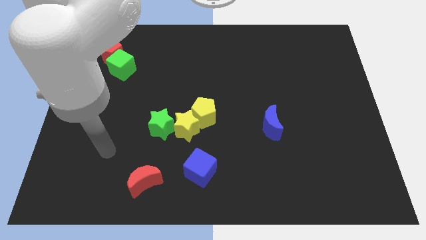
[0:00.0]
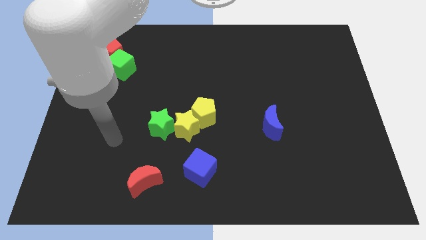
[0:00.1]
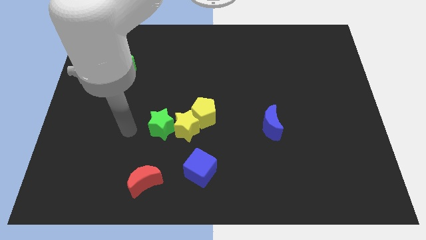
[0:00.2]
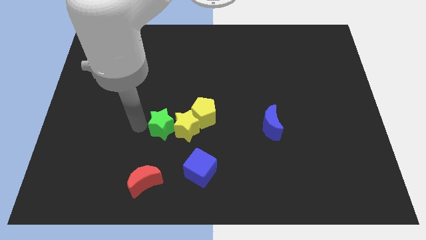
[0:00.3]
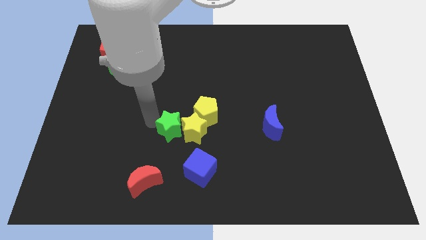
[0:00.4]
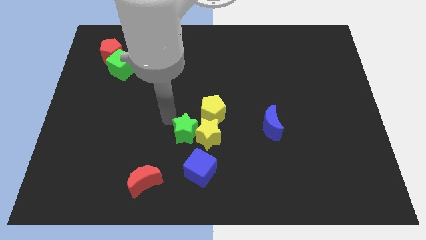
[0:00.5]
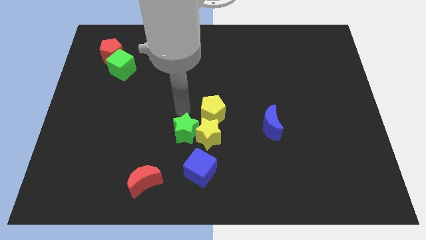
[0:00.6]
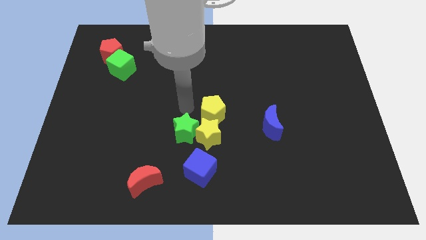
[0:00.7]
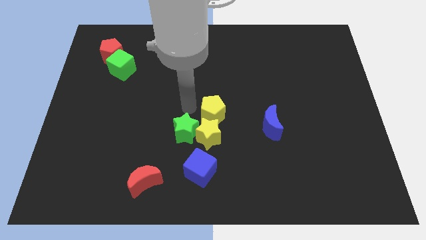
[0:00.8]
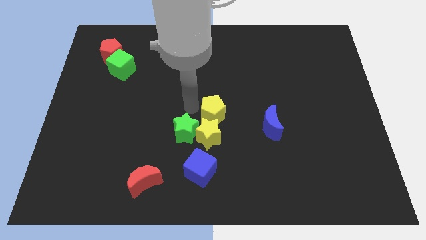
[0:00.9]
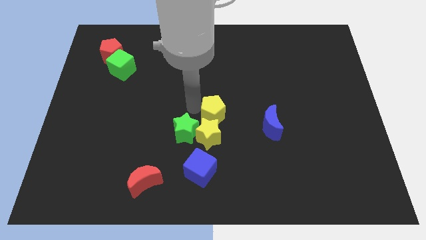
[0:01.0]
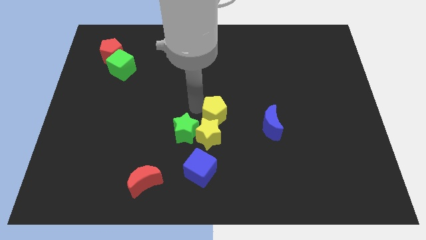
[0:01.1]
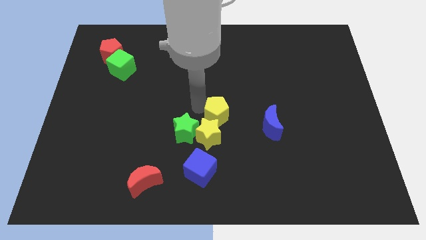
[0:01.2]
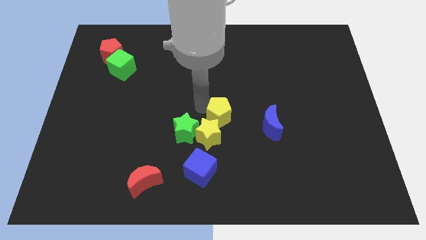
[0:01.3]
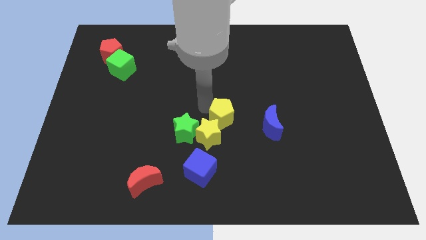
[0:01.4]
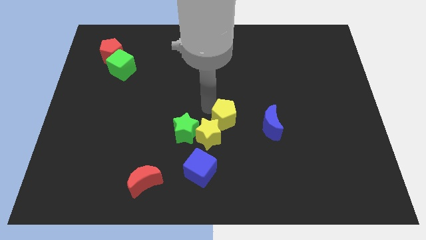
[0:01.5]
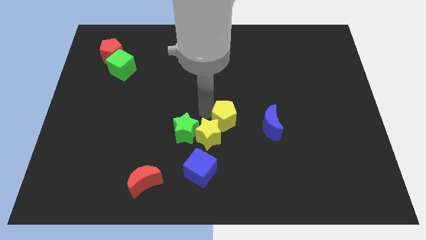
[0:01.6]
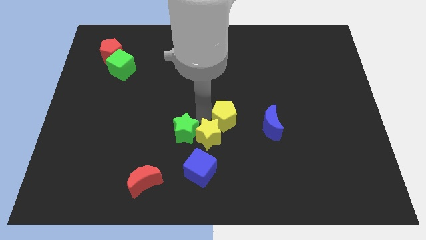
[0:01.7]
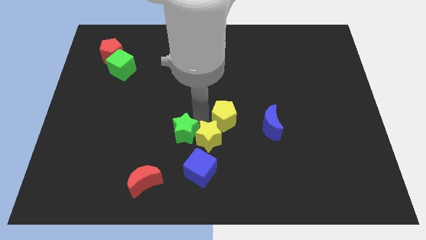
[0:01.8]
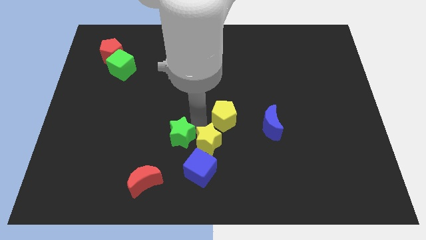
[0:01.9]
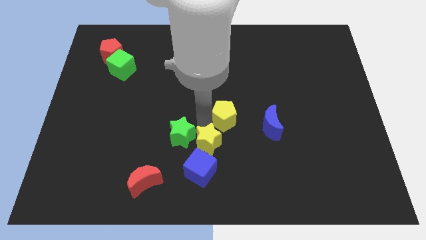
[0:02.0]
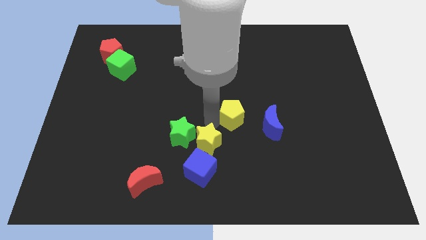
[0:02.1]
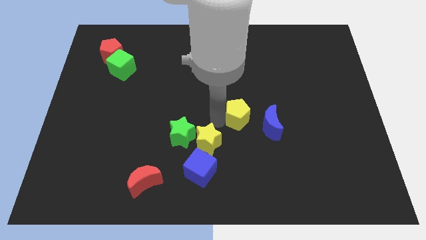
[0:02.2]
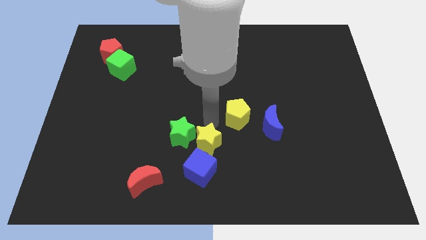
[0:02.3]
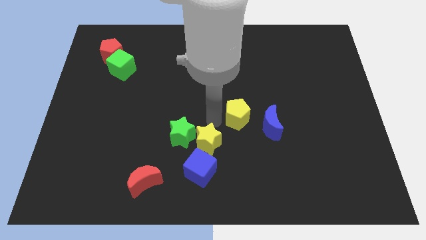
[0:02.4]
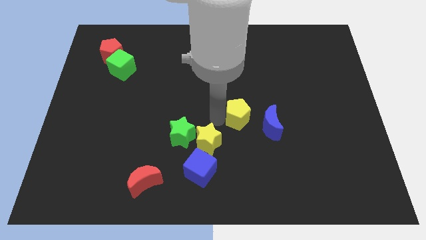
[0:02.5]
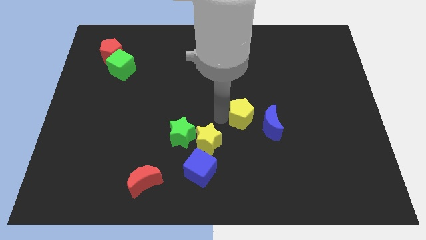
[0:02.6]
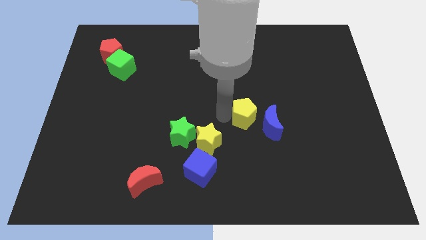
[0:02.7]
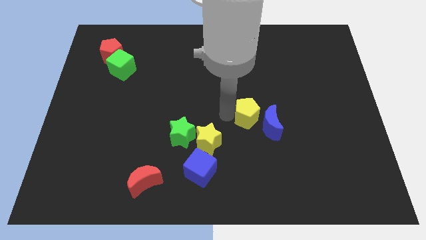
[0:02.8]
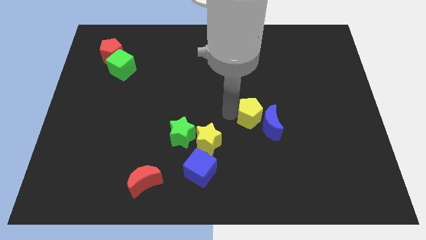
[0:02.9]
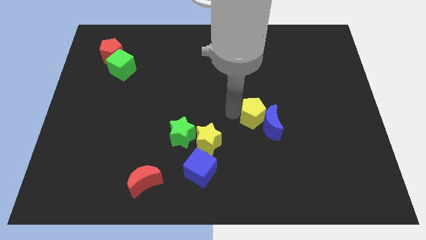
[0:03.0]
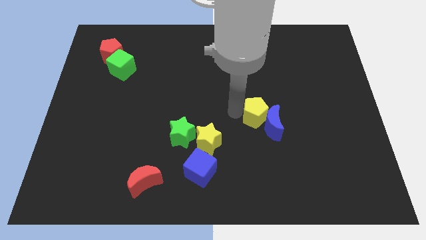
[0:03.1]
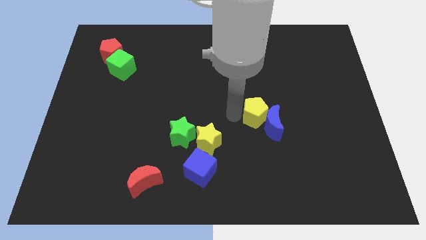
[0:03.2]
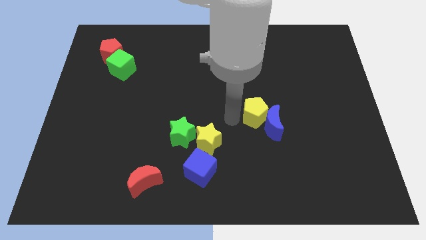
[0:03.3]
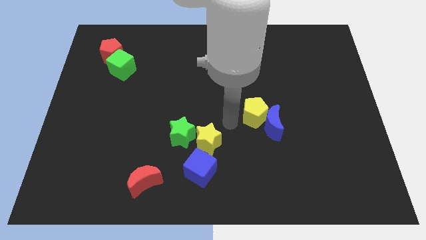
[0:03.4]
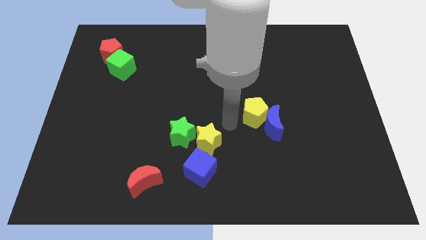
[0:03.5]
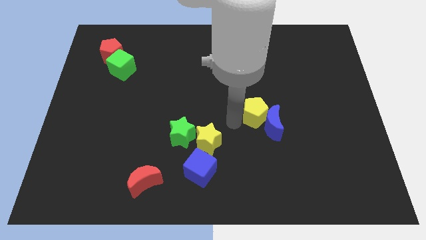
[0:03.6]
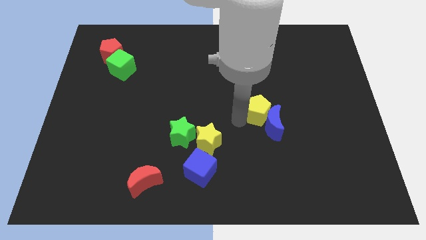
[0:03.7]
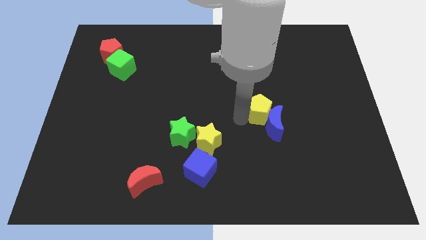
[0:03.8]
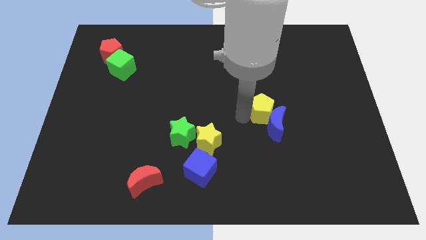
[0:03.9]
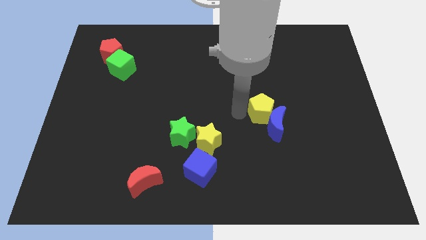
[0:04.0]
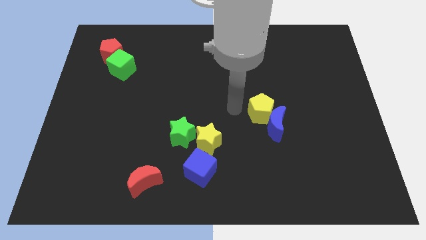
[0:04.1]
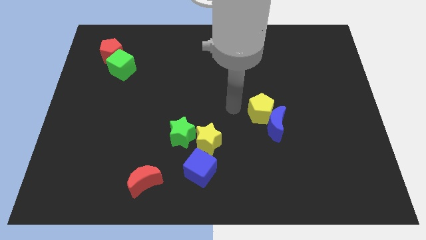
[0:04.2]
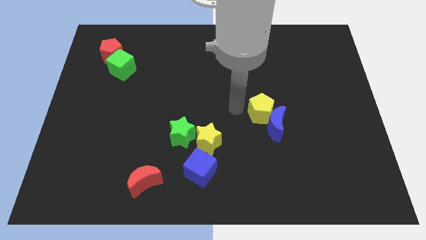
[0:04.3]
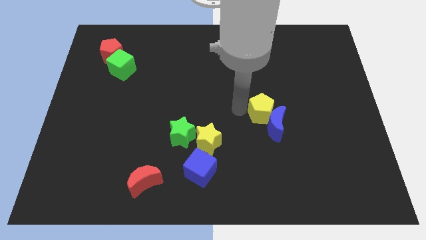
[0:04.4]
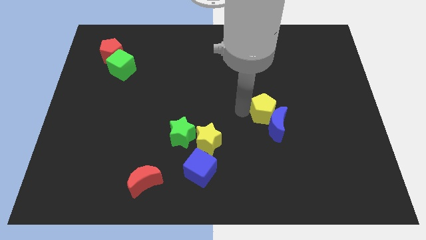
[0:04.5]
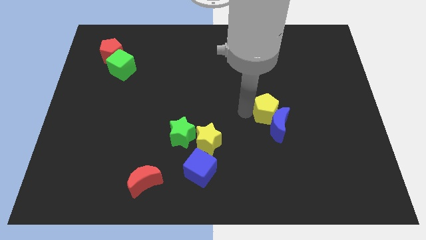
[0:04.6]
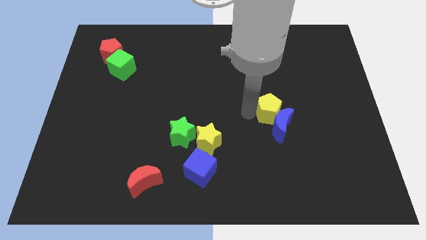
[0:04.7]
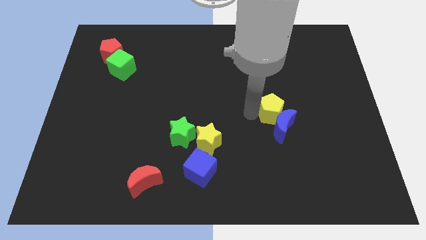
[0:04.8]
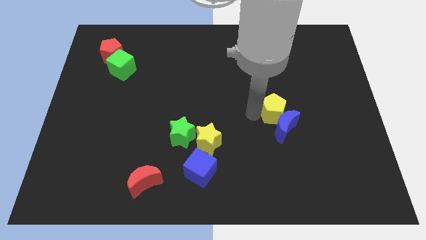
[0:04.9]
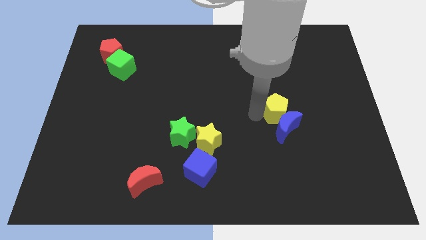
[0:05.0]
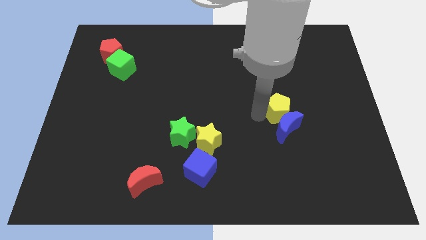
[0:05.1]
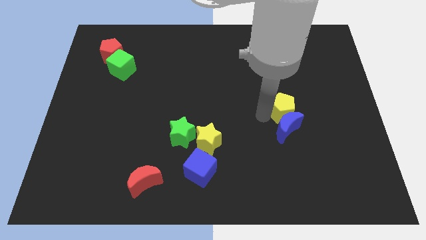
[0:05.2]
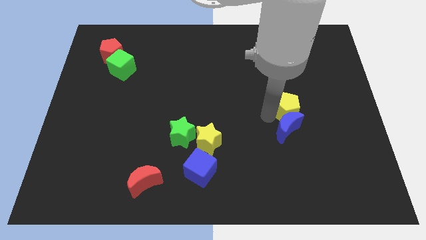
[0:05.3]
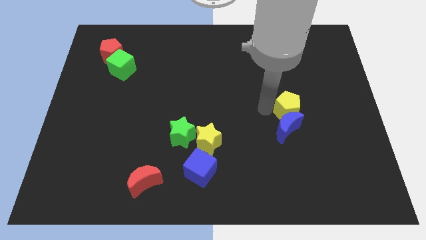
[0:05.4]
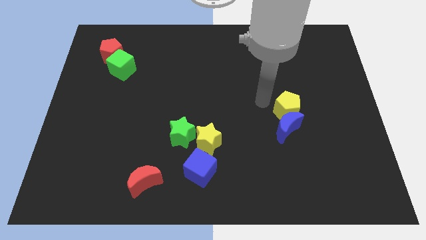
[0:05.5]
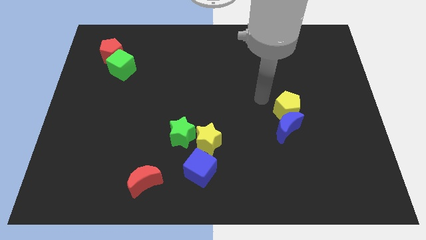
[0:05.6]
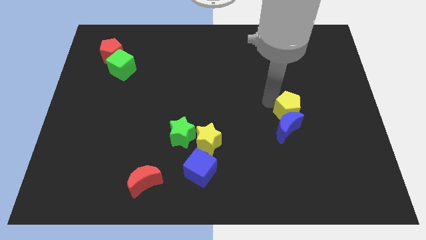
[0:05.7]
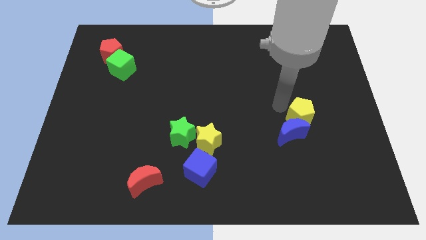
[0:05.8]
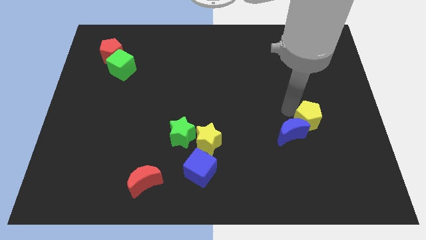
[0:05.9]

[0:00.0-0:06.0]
put the yellow pentagon right of the blue moon

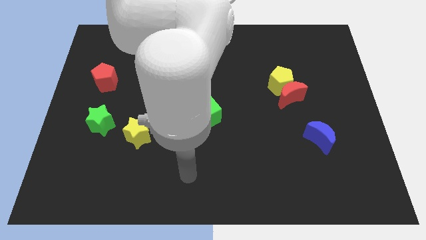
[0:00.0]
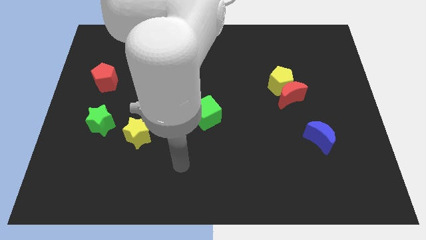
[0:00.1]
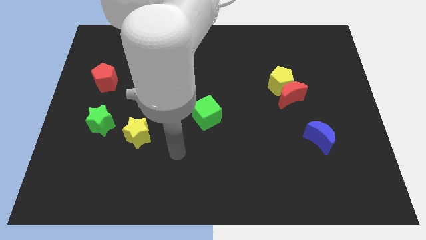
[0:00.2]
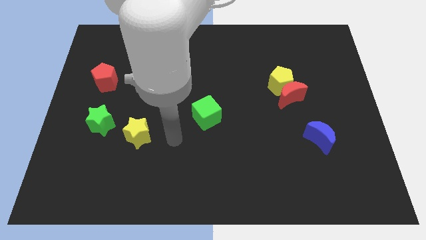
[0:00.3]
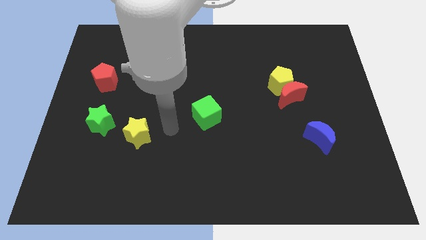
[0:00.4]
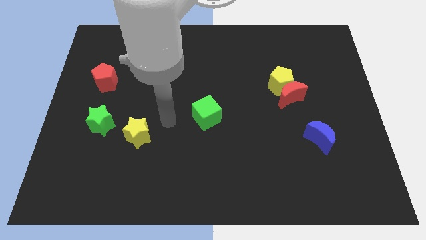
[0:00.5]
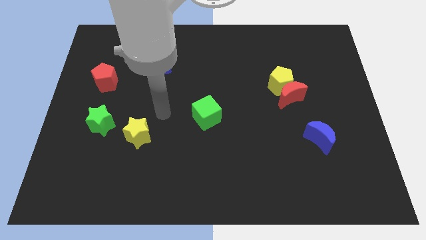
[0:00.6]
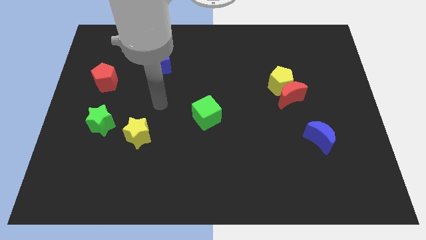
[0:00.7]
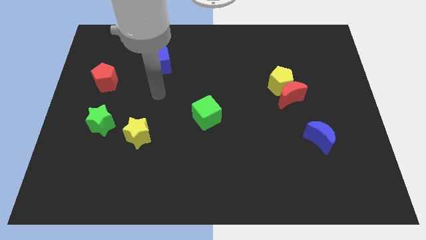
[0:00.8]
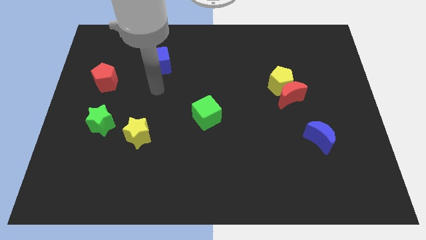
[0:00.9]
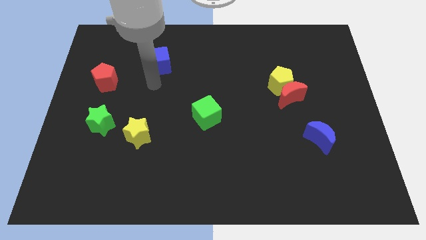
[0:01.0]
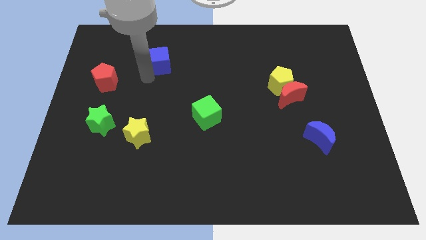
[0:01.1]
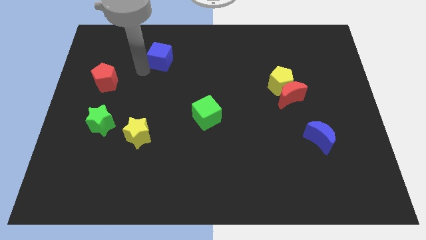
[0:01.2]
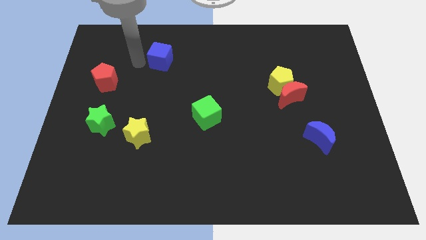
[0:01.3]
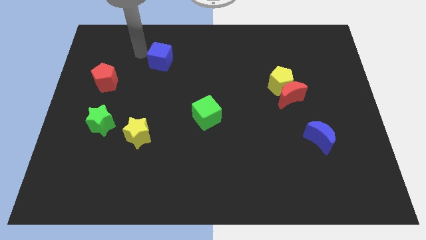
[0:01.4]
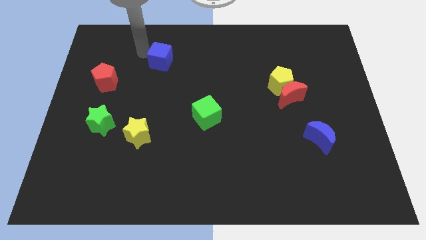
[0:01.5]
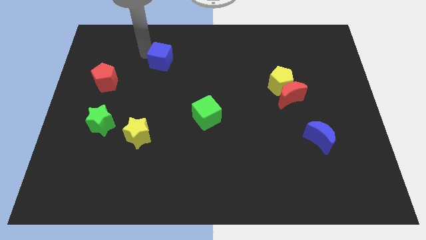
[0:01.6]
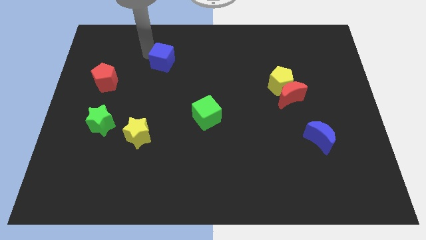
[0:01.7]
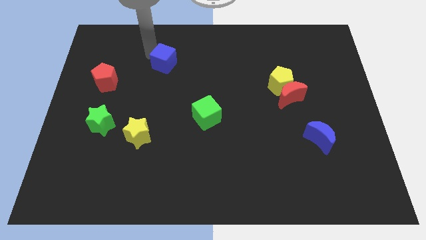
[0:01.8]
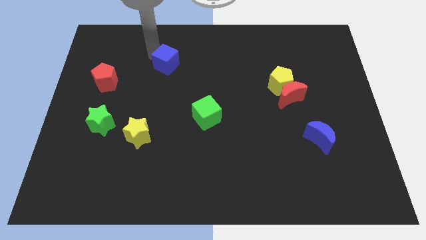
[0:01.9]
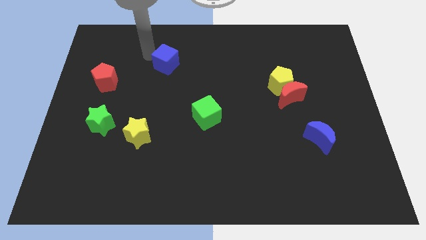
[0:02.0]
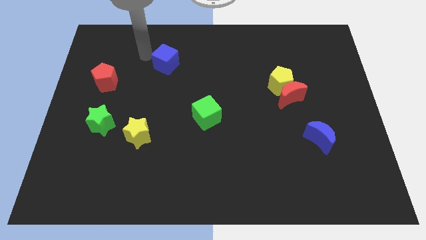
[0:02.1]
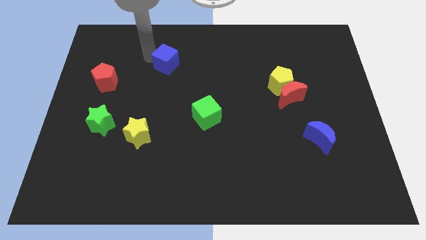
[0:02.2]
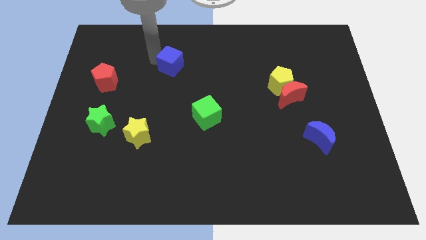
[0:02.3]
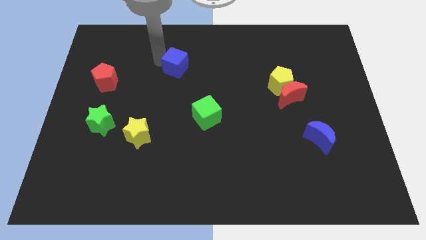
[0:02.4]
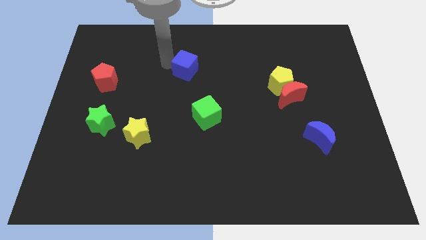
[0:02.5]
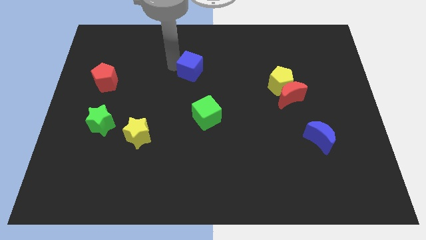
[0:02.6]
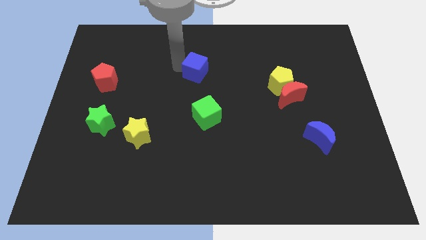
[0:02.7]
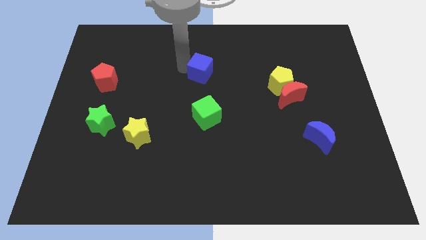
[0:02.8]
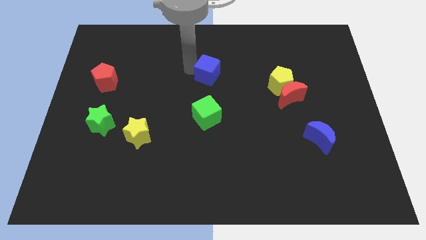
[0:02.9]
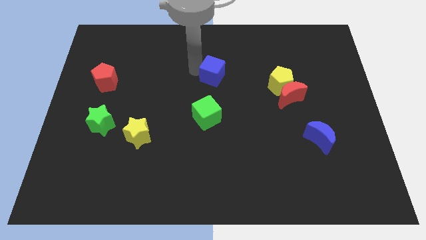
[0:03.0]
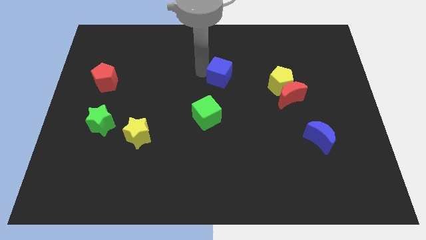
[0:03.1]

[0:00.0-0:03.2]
slide the blue cube just left of the yellow pentagon
